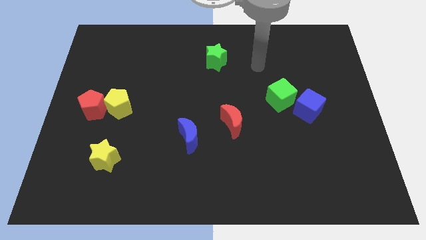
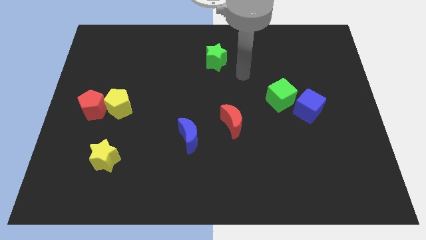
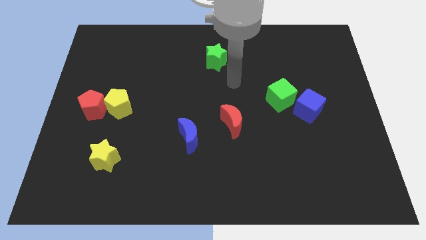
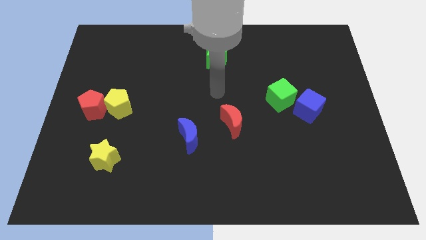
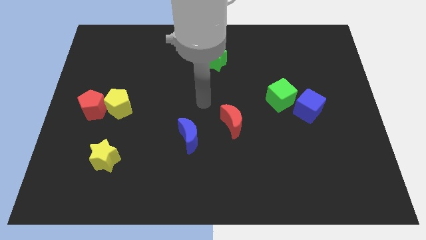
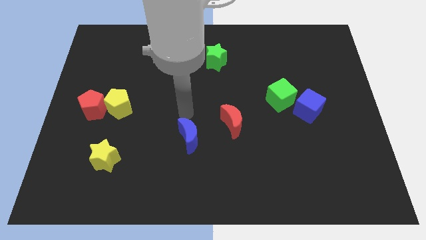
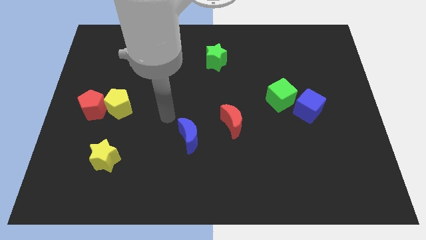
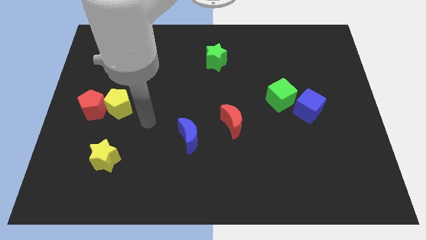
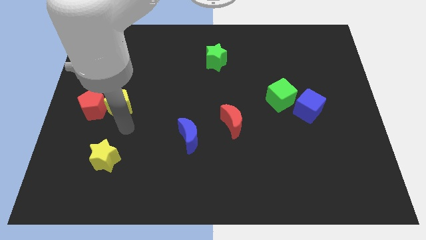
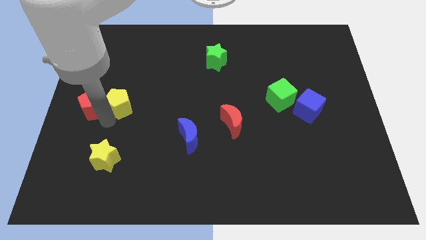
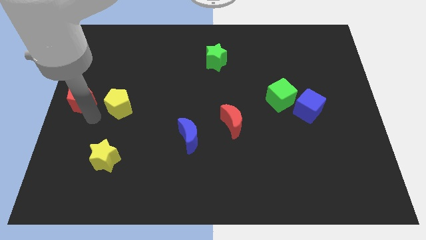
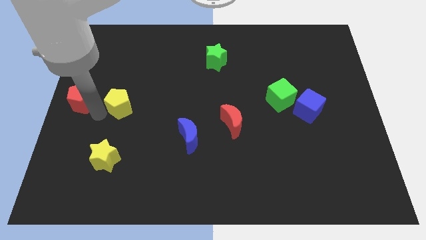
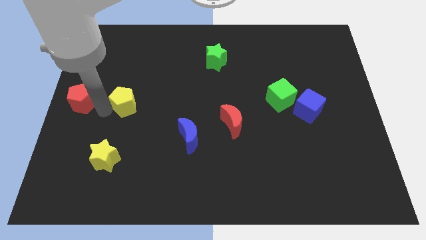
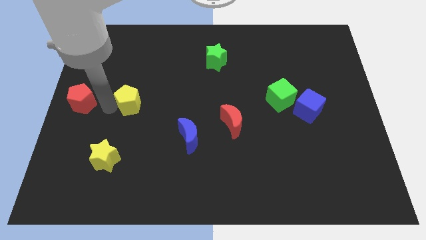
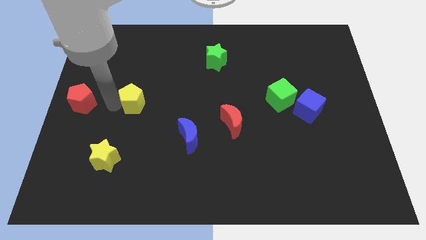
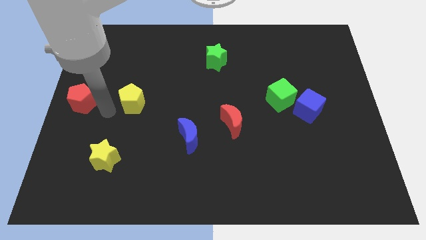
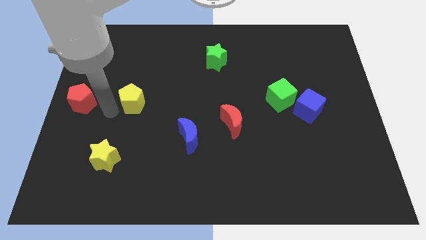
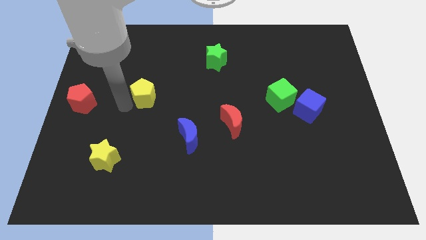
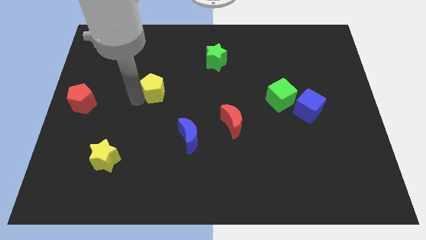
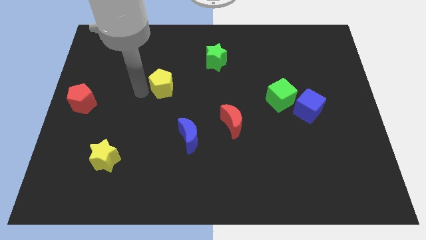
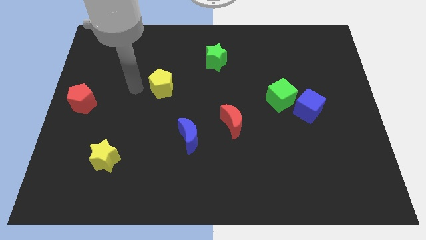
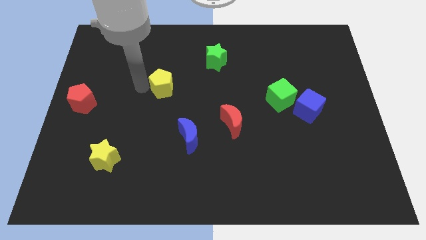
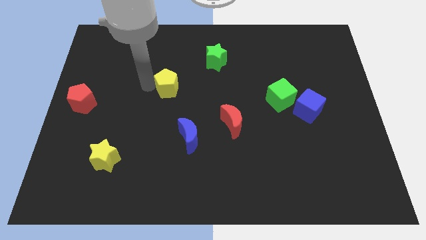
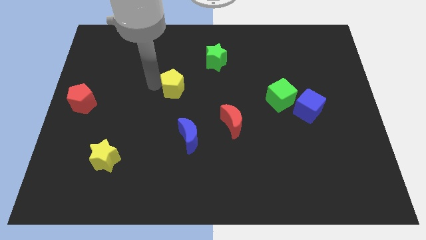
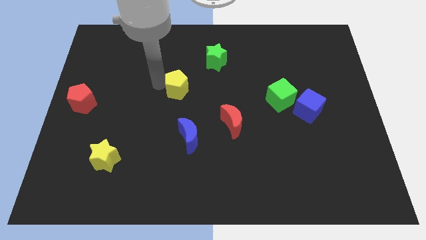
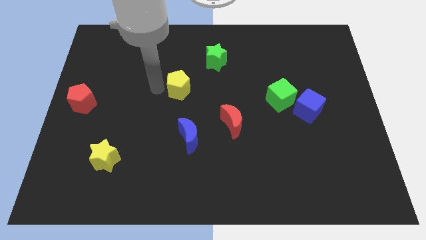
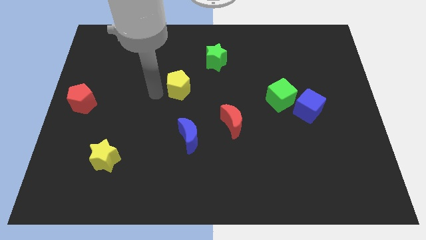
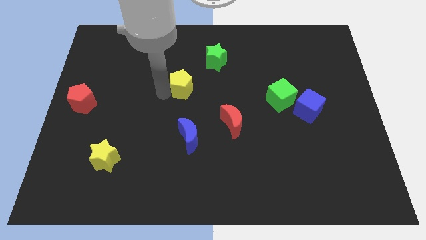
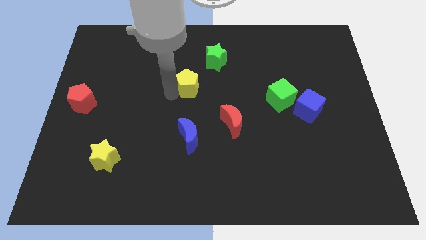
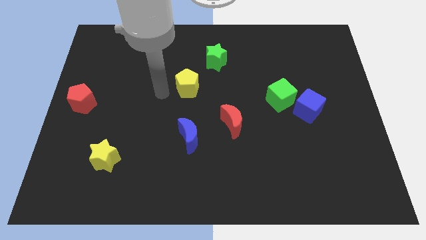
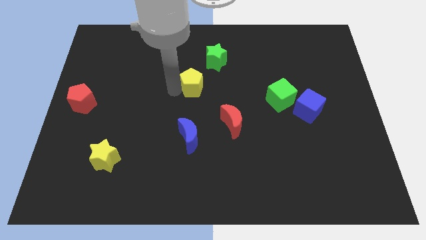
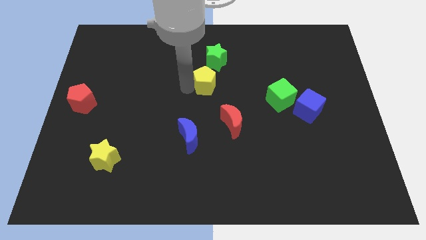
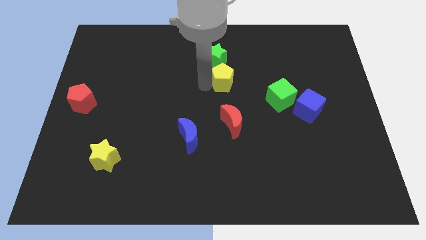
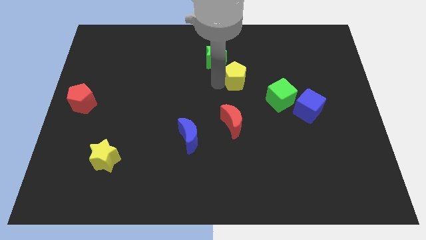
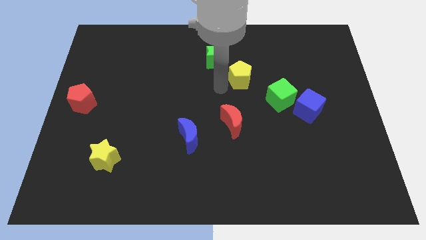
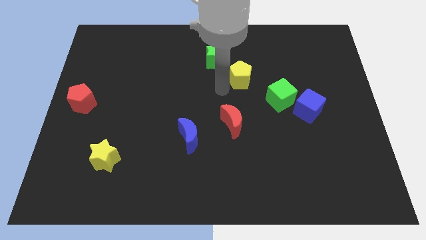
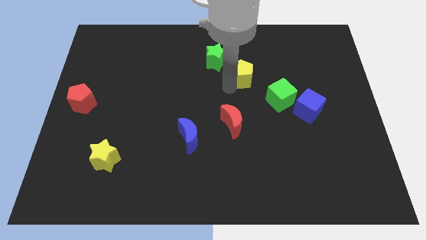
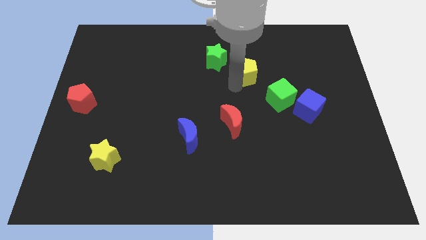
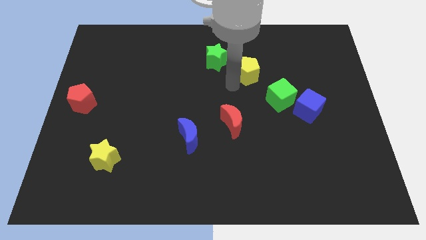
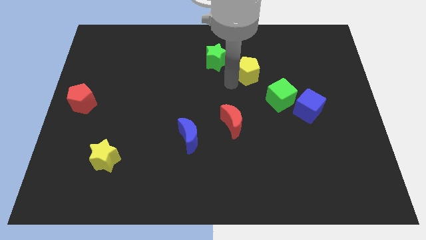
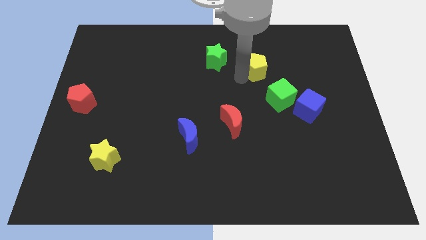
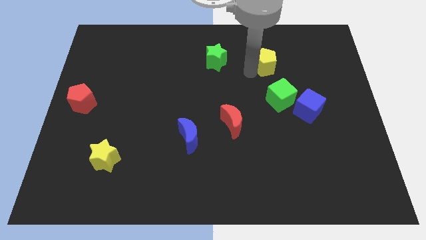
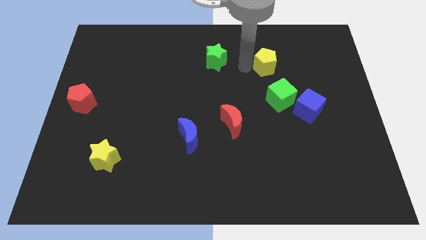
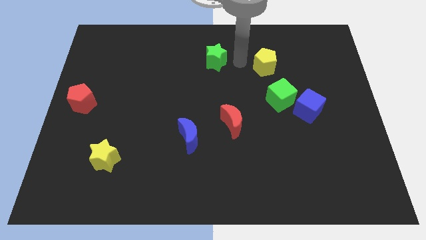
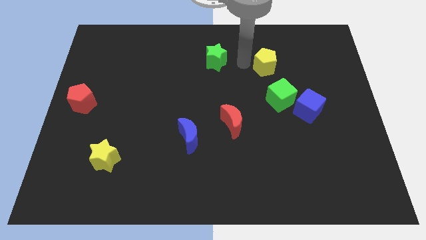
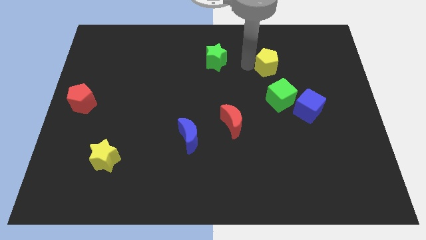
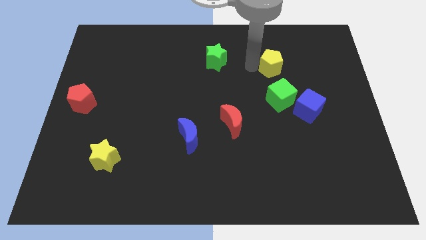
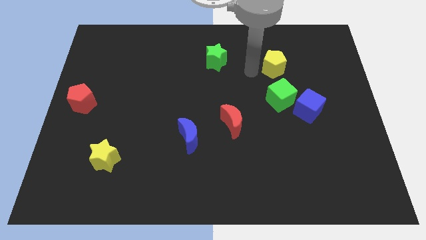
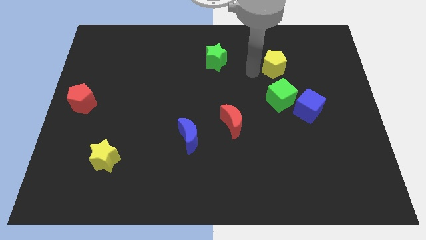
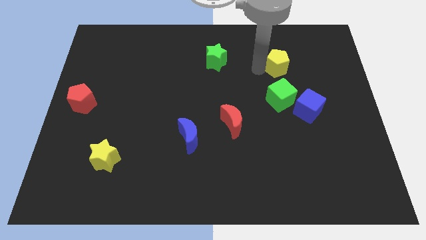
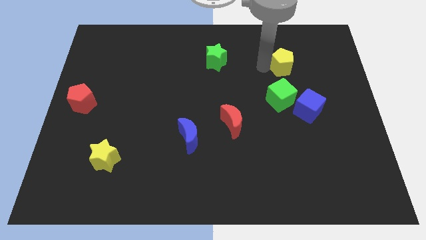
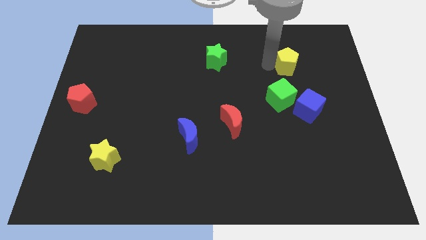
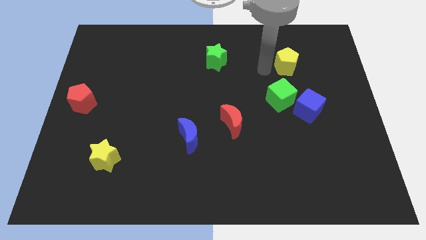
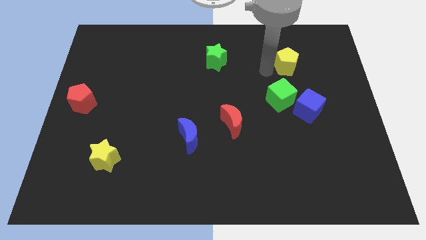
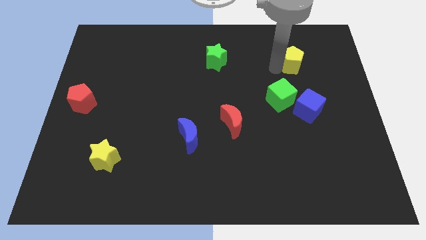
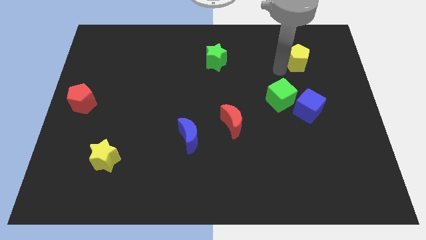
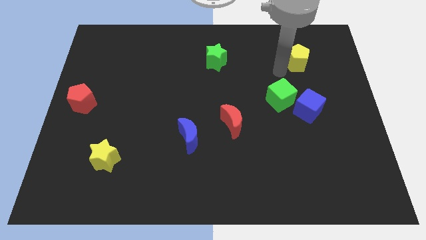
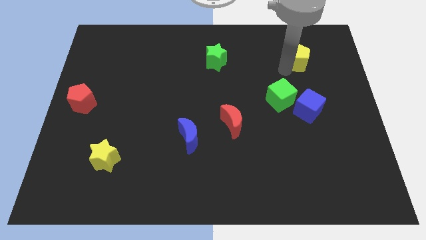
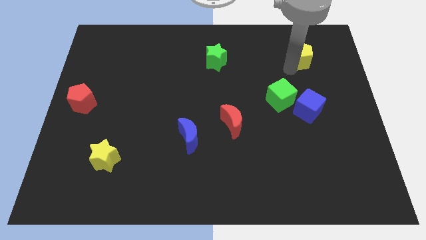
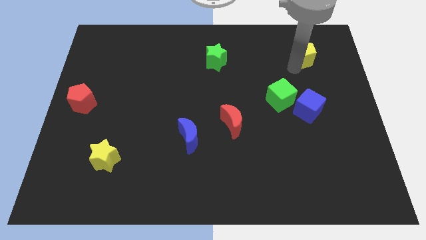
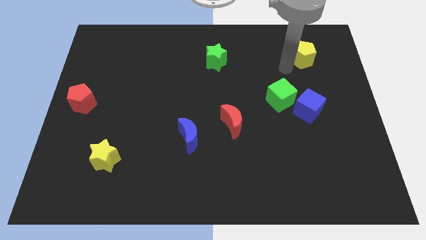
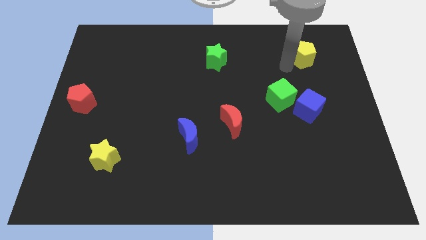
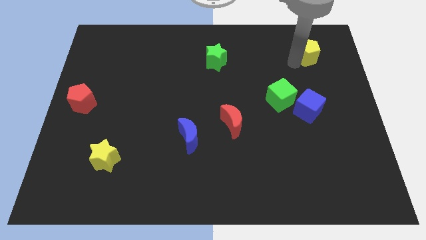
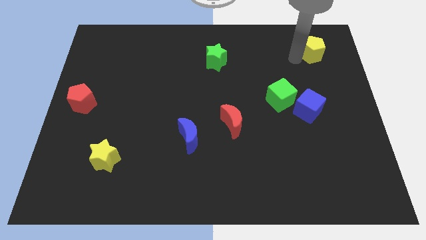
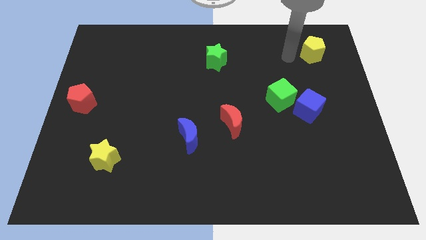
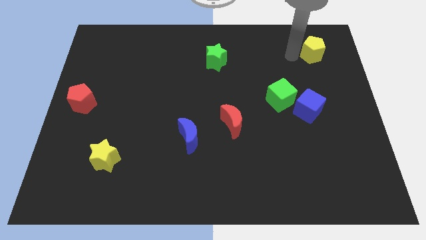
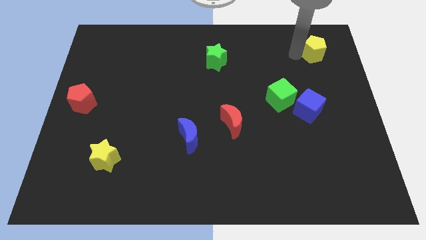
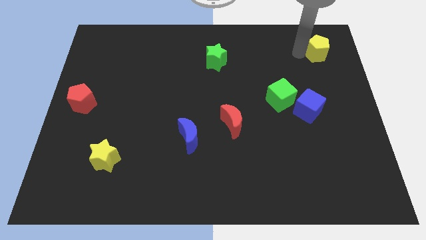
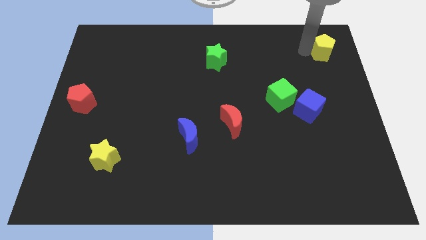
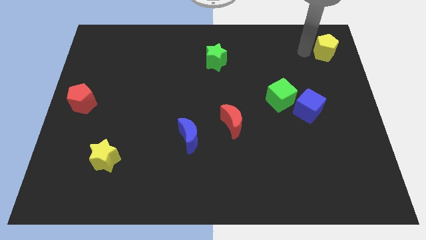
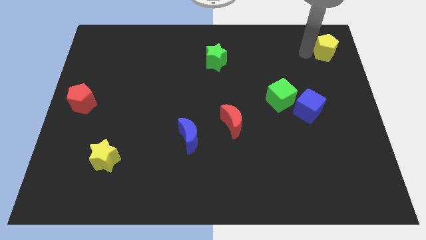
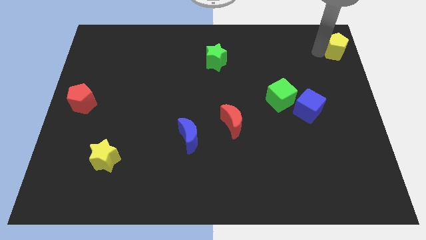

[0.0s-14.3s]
move the yellow pentagon to the top right of the board
